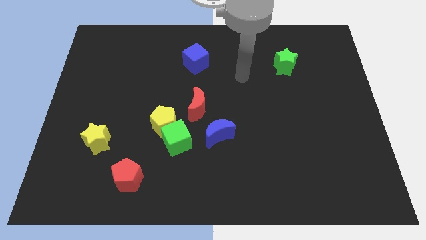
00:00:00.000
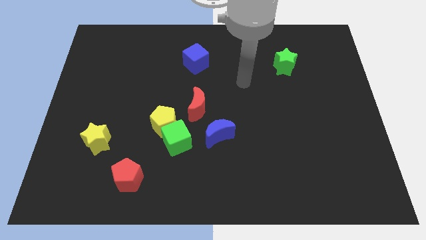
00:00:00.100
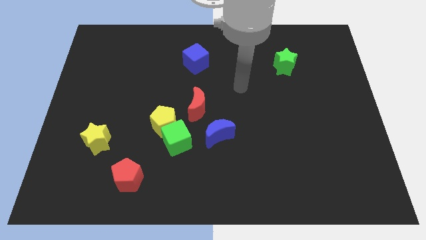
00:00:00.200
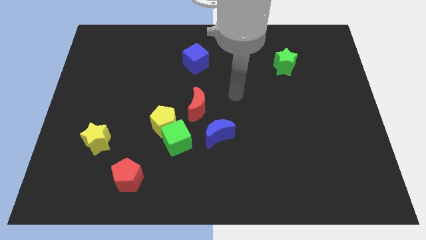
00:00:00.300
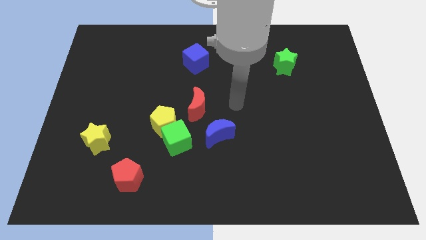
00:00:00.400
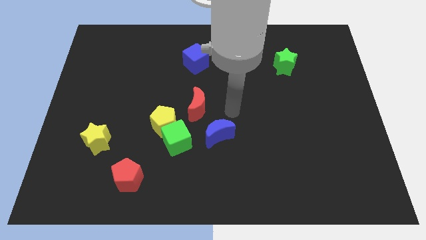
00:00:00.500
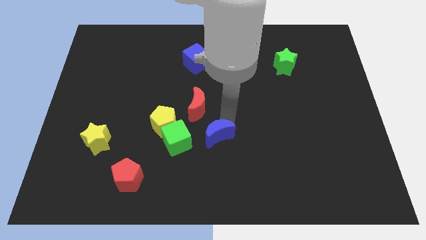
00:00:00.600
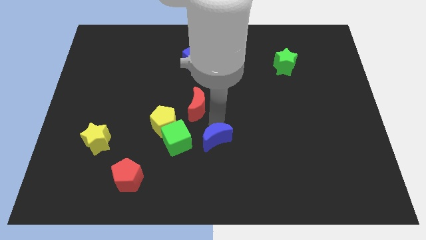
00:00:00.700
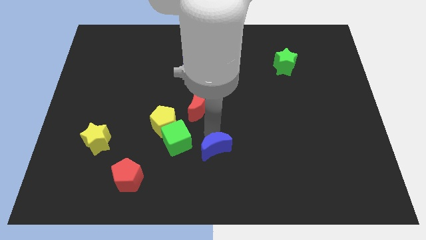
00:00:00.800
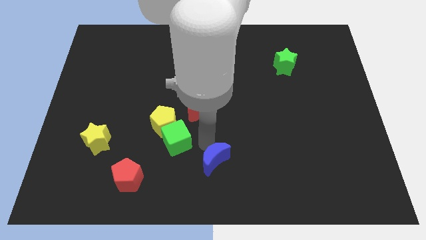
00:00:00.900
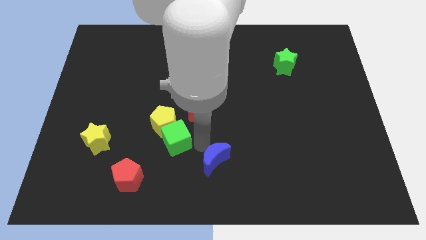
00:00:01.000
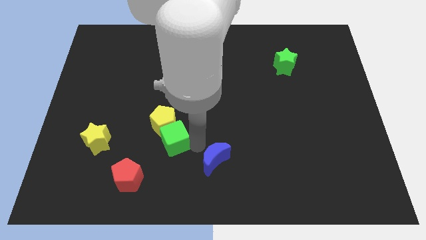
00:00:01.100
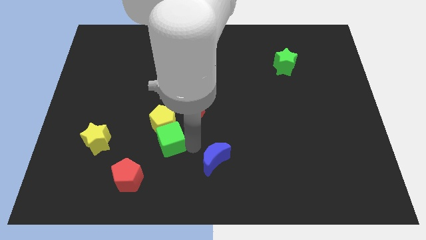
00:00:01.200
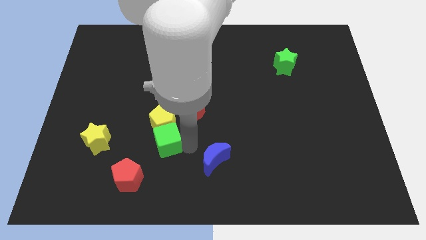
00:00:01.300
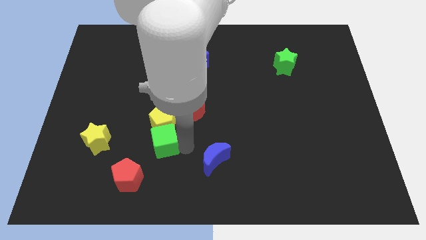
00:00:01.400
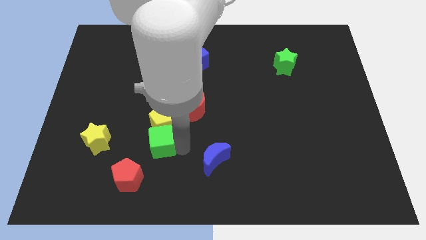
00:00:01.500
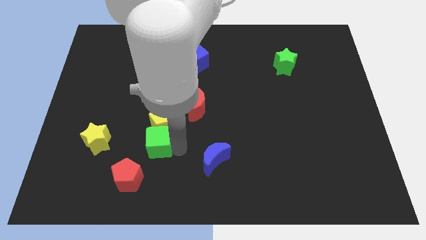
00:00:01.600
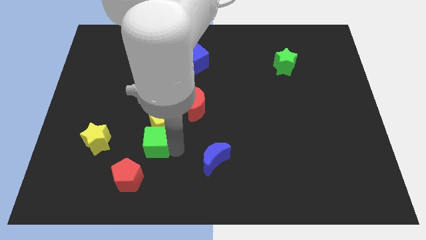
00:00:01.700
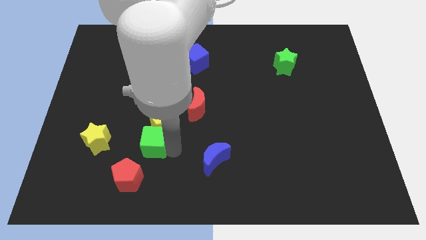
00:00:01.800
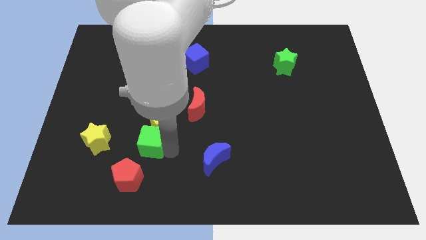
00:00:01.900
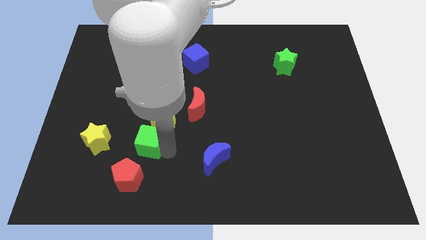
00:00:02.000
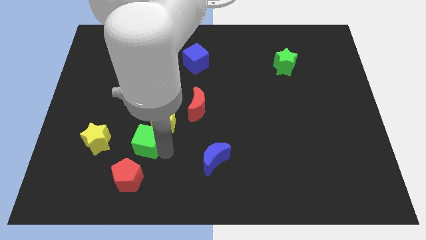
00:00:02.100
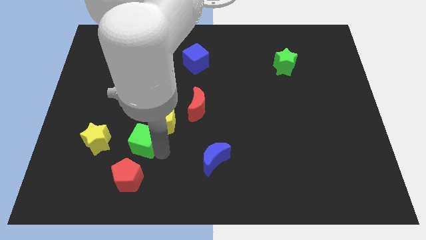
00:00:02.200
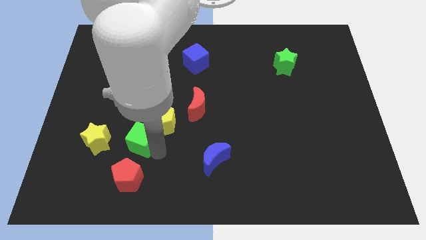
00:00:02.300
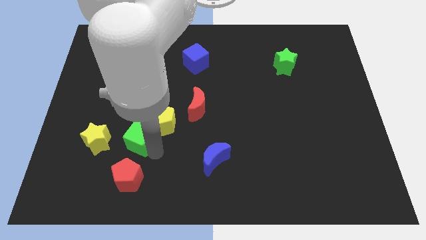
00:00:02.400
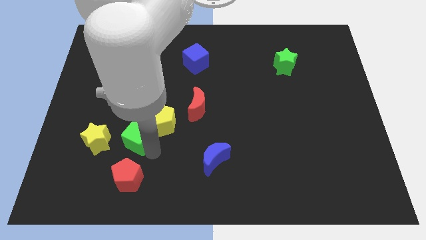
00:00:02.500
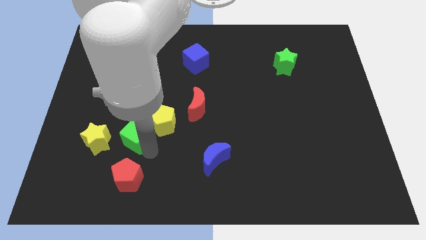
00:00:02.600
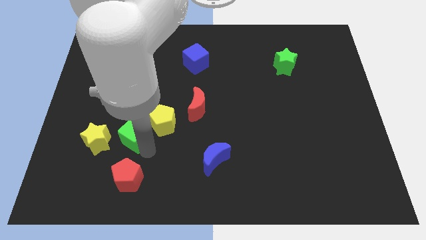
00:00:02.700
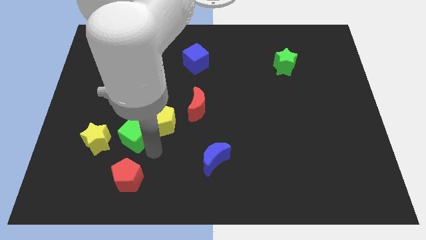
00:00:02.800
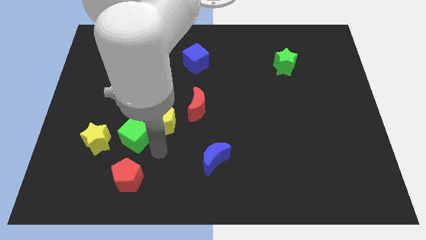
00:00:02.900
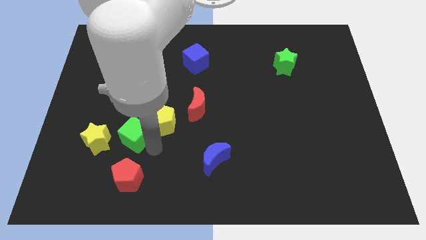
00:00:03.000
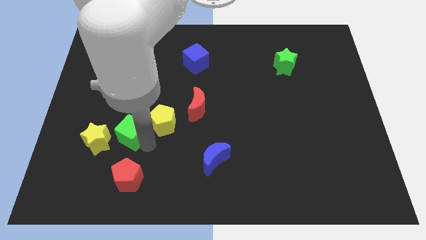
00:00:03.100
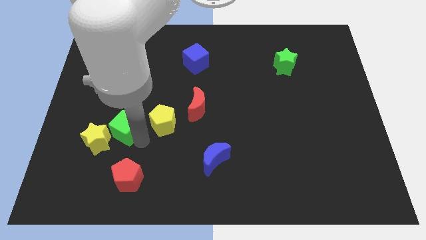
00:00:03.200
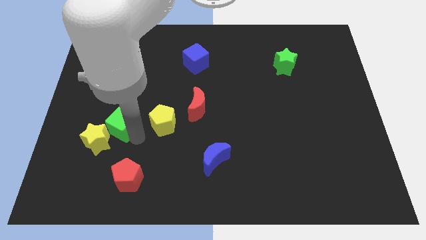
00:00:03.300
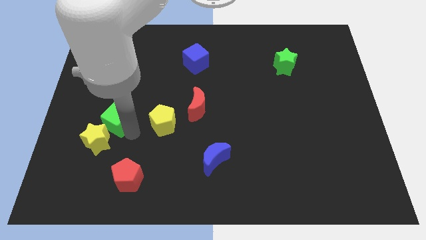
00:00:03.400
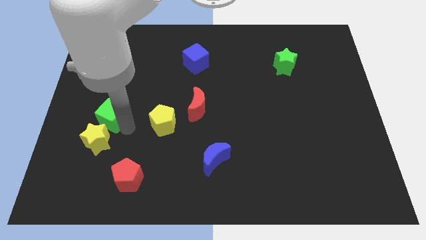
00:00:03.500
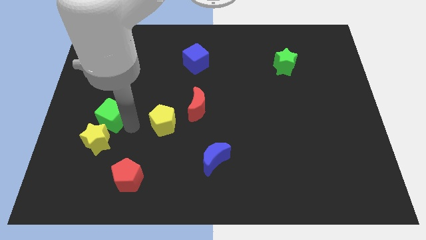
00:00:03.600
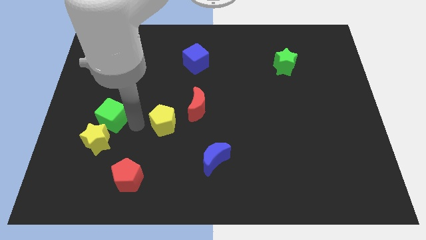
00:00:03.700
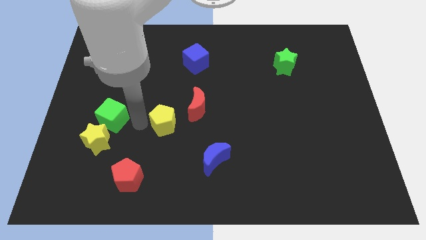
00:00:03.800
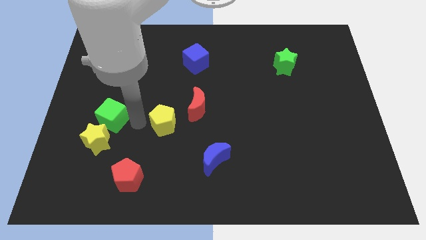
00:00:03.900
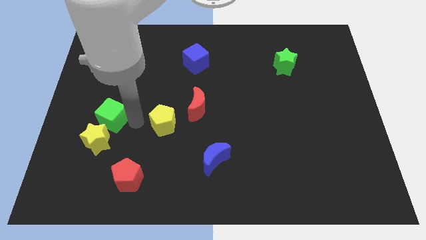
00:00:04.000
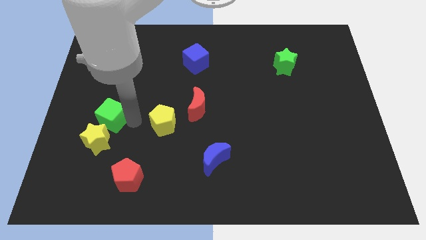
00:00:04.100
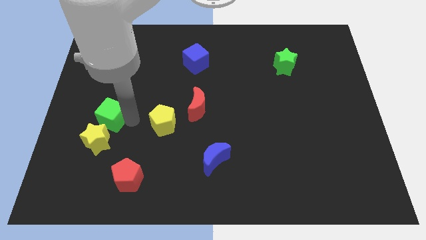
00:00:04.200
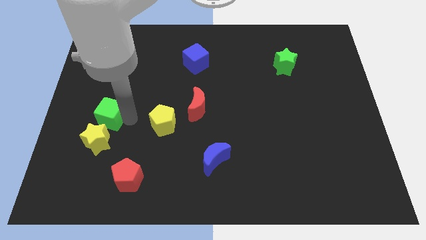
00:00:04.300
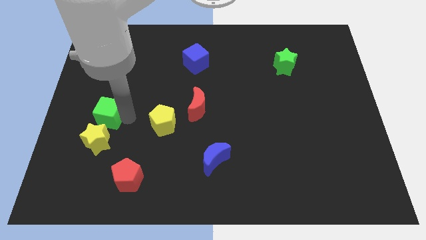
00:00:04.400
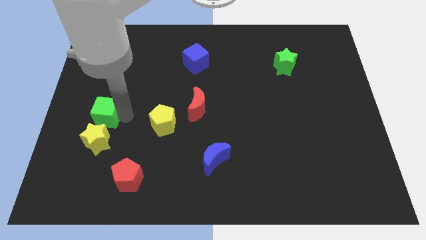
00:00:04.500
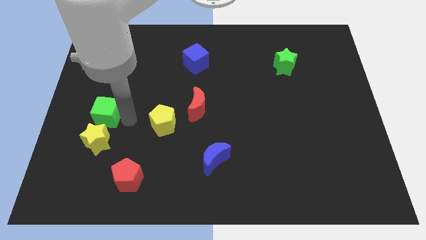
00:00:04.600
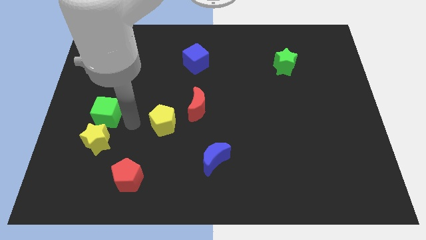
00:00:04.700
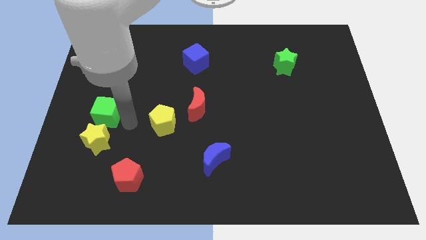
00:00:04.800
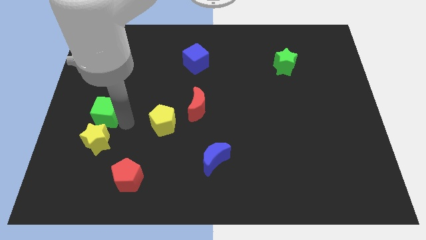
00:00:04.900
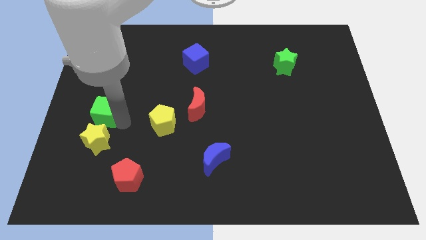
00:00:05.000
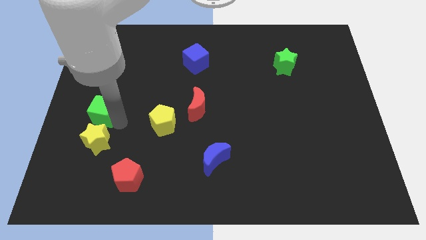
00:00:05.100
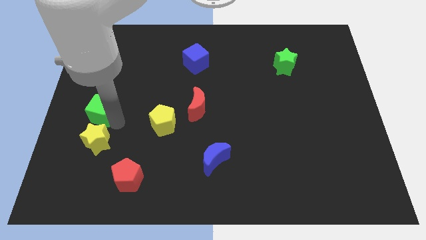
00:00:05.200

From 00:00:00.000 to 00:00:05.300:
push the green cube to the left side of the board

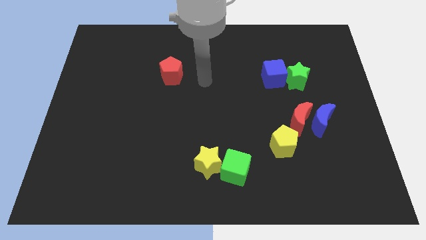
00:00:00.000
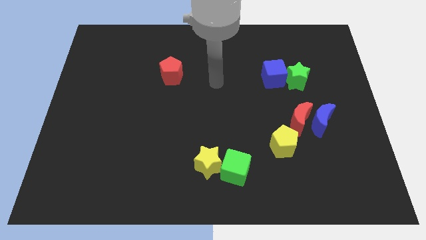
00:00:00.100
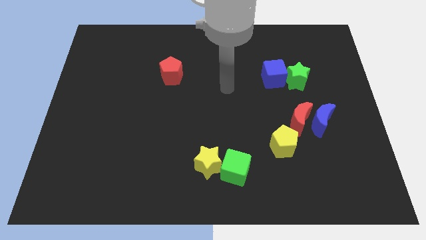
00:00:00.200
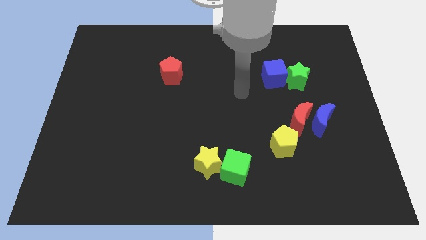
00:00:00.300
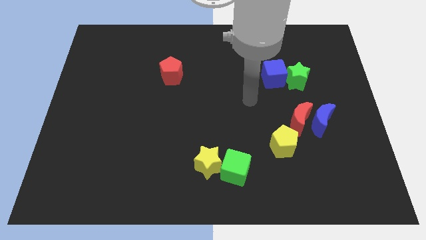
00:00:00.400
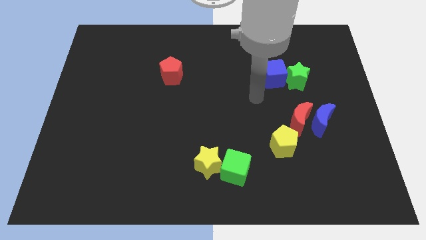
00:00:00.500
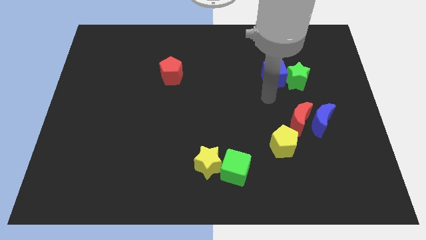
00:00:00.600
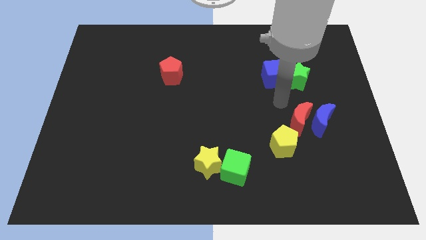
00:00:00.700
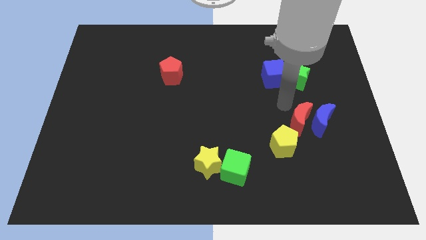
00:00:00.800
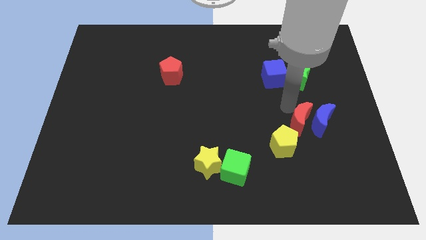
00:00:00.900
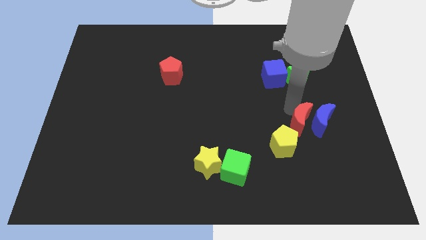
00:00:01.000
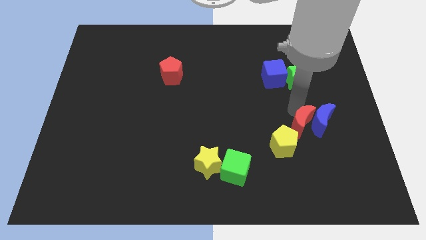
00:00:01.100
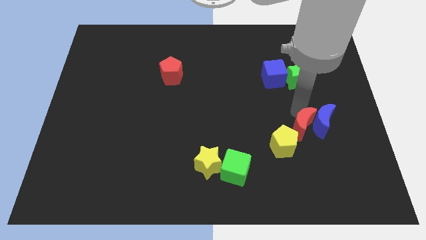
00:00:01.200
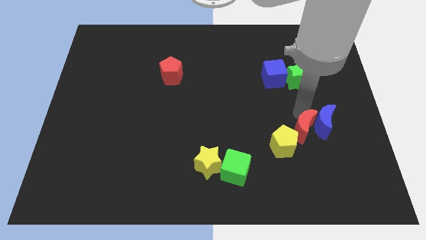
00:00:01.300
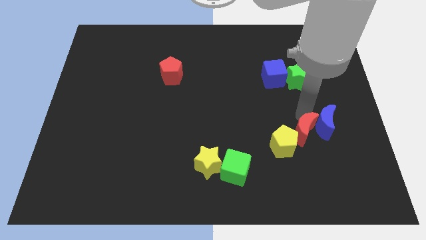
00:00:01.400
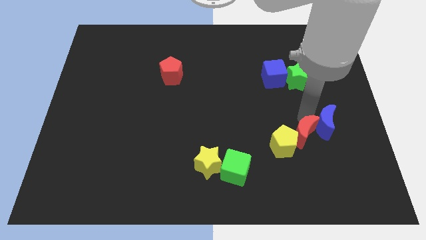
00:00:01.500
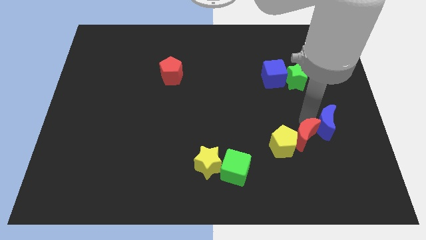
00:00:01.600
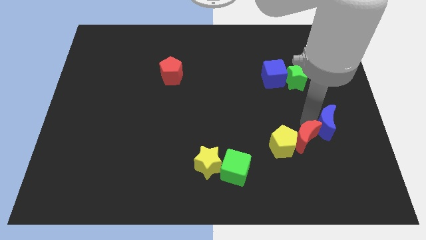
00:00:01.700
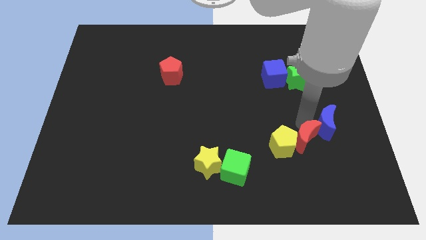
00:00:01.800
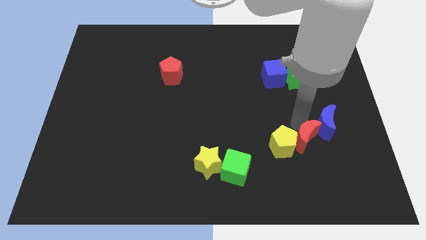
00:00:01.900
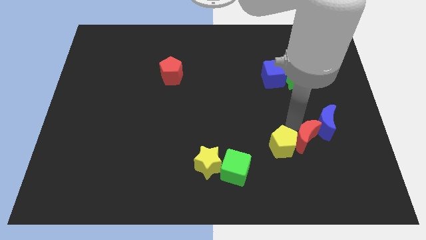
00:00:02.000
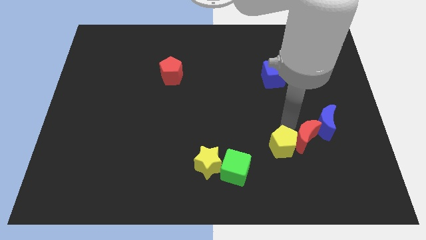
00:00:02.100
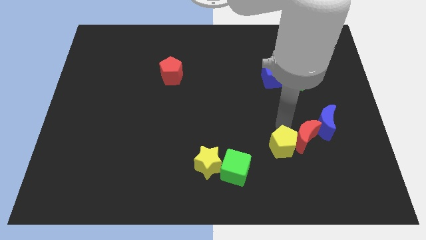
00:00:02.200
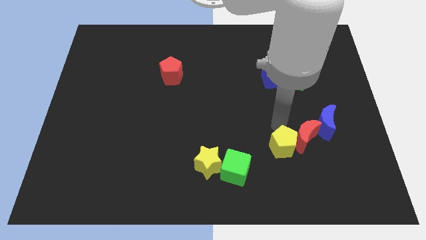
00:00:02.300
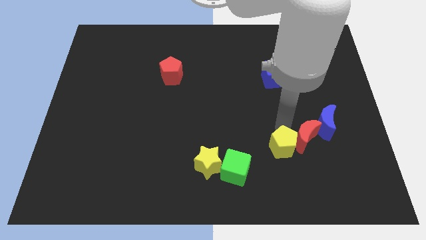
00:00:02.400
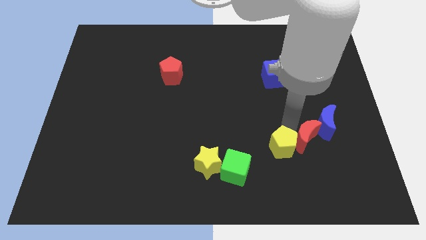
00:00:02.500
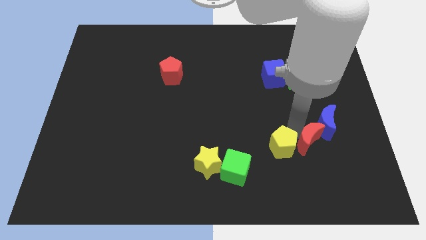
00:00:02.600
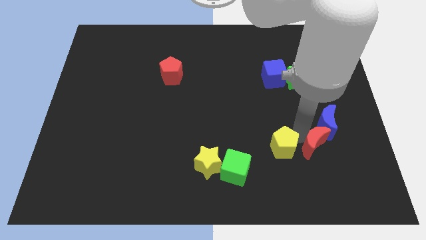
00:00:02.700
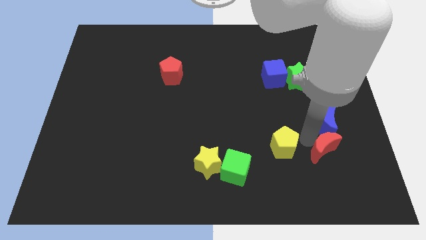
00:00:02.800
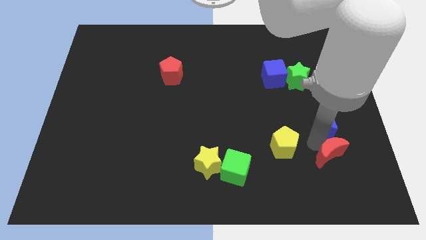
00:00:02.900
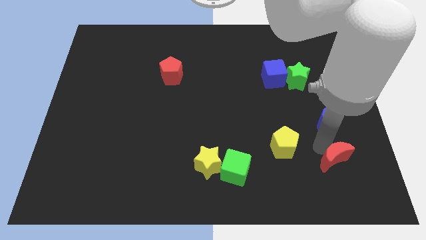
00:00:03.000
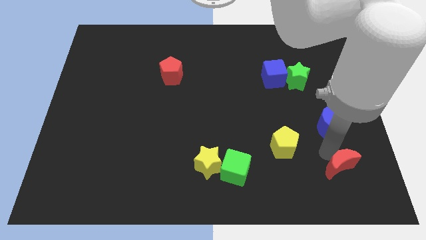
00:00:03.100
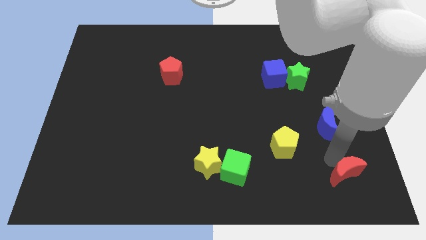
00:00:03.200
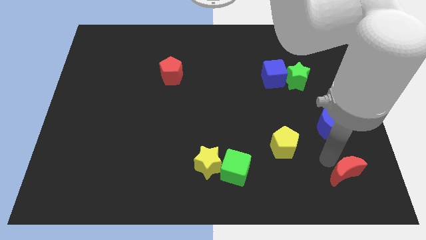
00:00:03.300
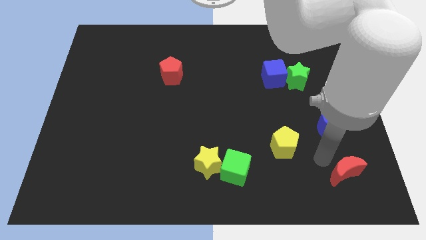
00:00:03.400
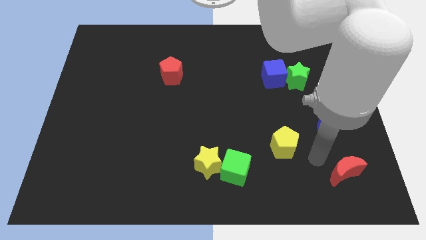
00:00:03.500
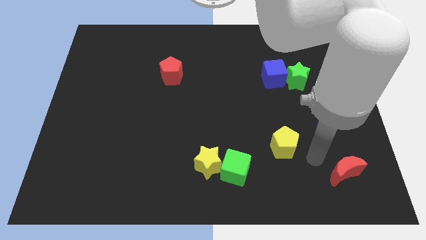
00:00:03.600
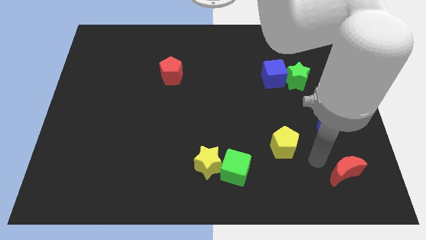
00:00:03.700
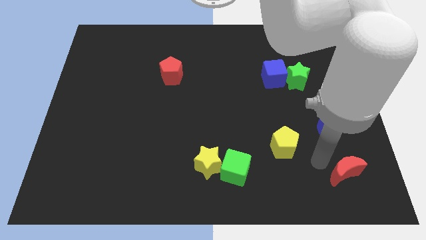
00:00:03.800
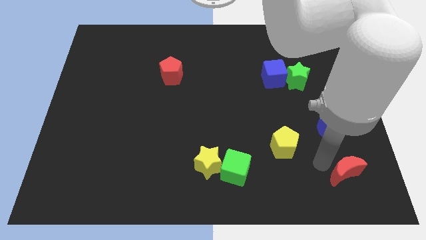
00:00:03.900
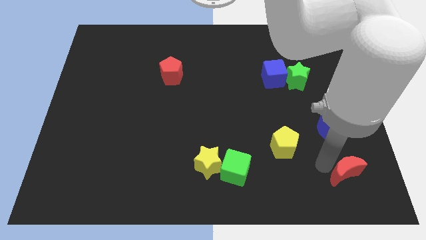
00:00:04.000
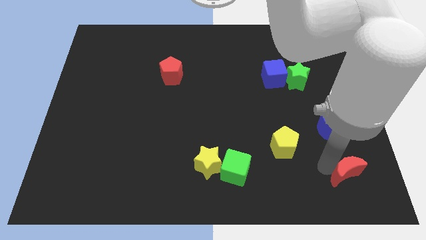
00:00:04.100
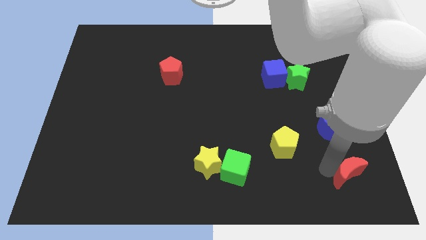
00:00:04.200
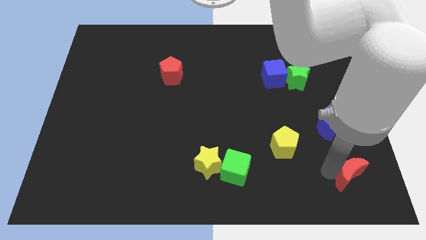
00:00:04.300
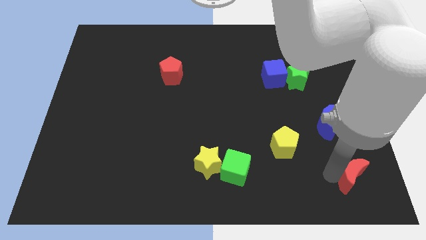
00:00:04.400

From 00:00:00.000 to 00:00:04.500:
move the red moon to the lower right corner
